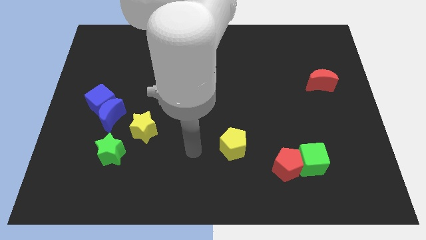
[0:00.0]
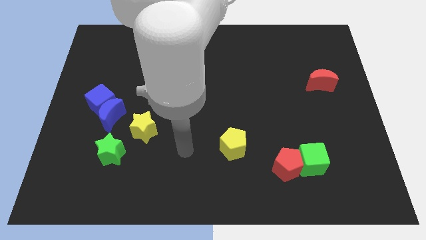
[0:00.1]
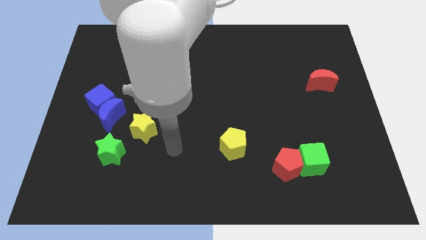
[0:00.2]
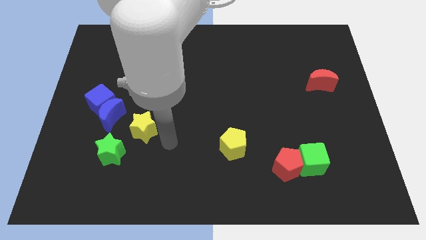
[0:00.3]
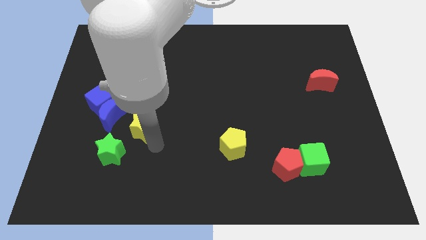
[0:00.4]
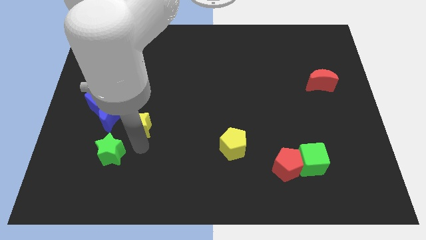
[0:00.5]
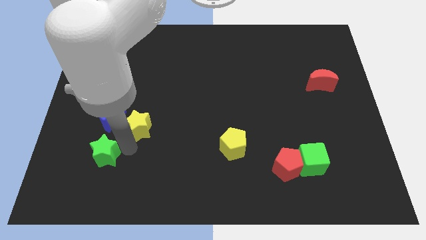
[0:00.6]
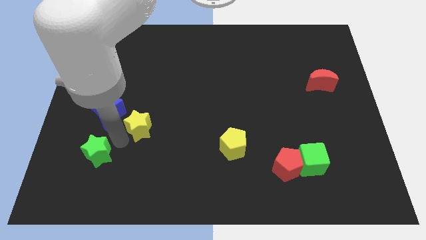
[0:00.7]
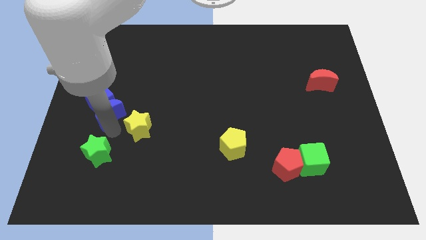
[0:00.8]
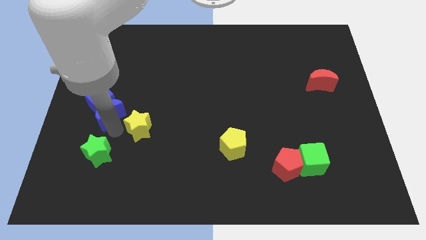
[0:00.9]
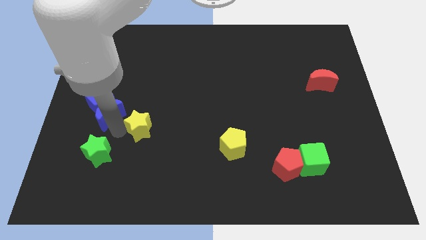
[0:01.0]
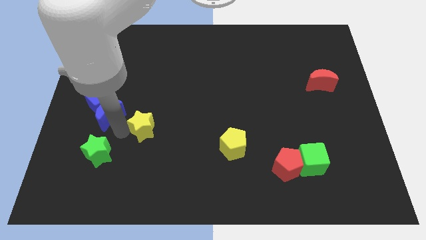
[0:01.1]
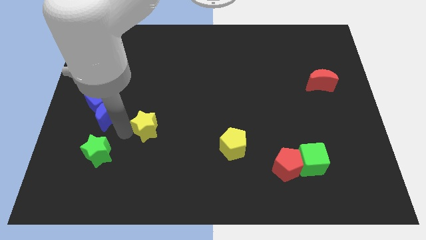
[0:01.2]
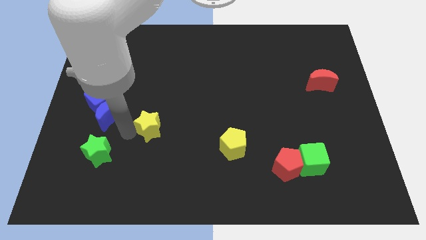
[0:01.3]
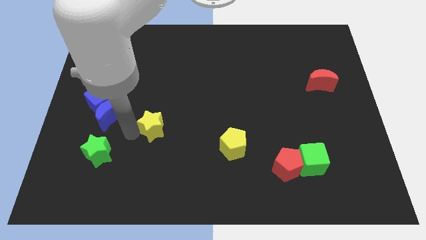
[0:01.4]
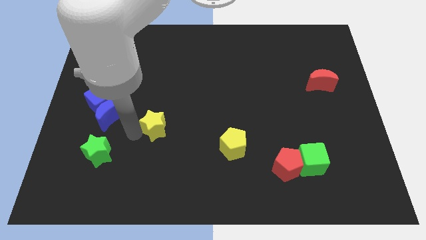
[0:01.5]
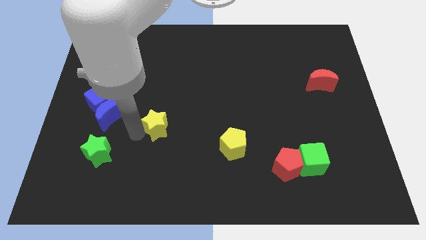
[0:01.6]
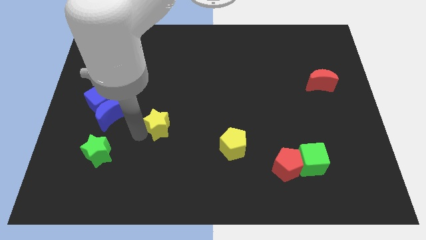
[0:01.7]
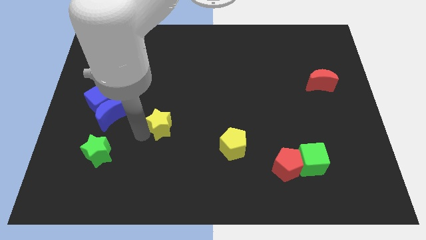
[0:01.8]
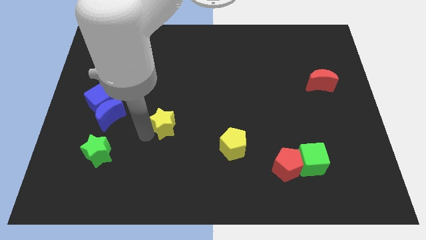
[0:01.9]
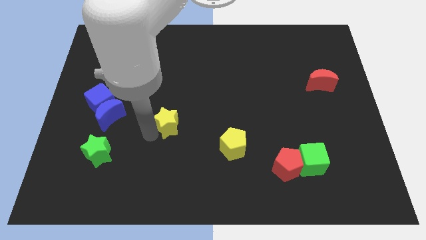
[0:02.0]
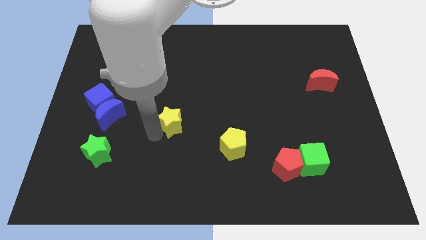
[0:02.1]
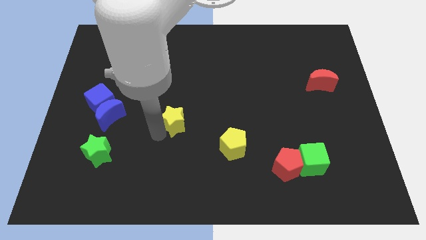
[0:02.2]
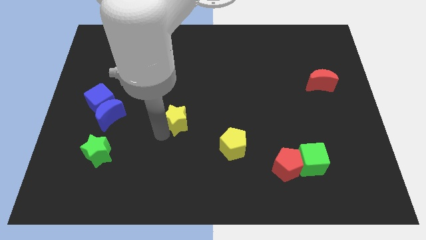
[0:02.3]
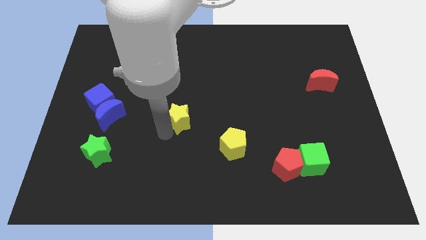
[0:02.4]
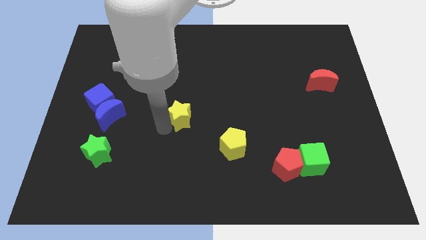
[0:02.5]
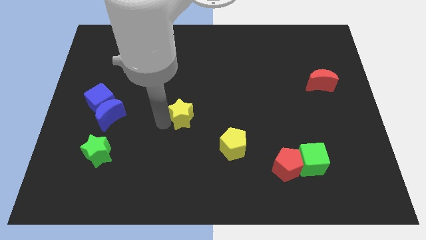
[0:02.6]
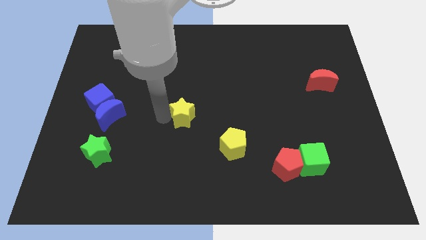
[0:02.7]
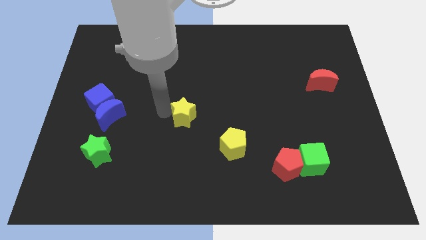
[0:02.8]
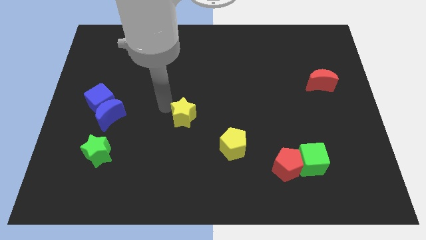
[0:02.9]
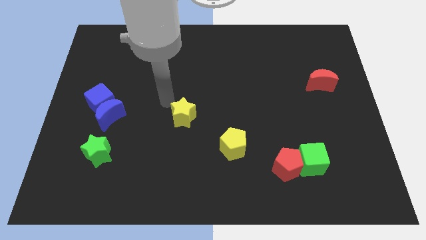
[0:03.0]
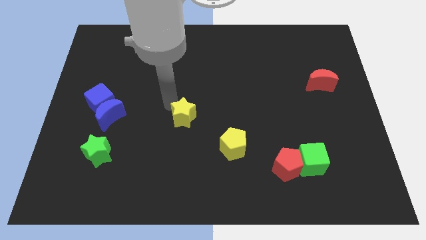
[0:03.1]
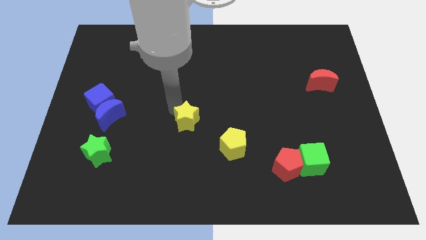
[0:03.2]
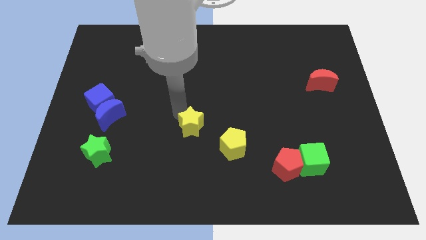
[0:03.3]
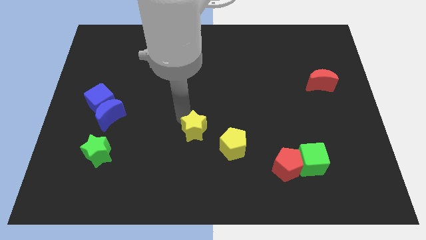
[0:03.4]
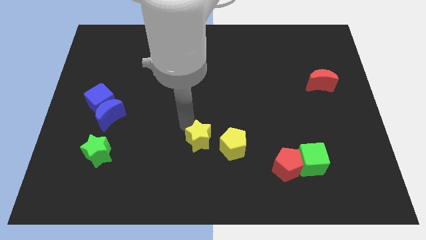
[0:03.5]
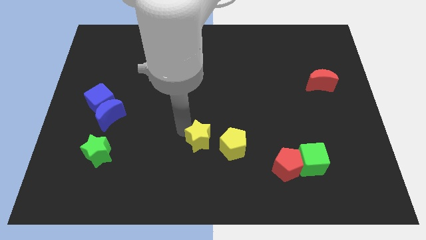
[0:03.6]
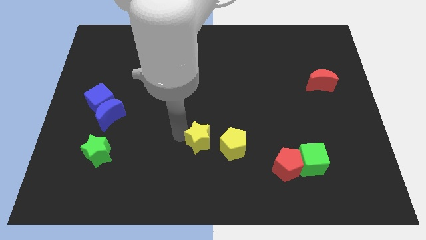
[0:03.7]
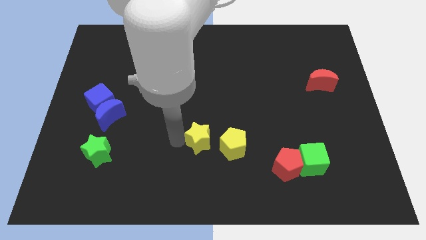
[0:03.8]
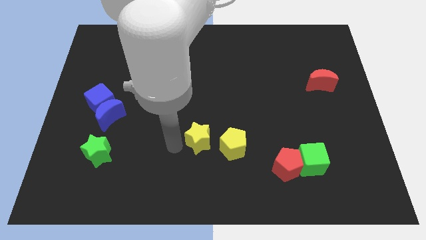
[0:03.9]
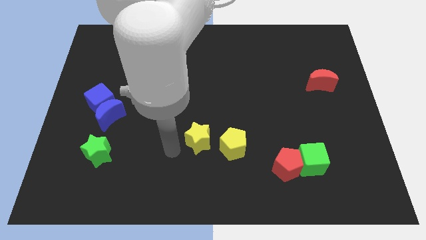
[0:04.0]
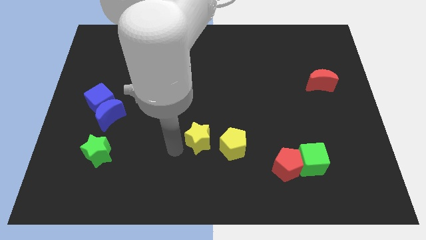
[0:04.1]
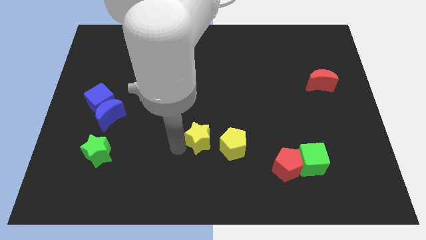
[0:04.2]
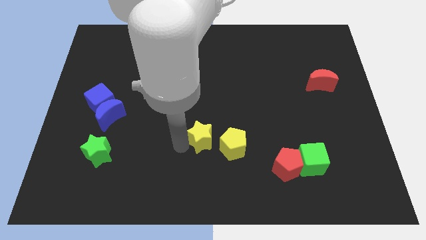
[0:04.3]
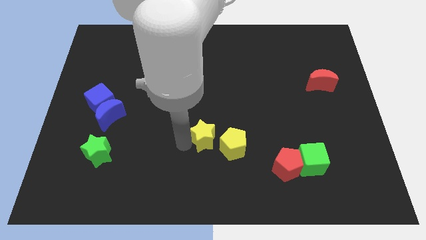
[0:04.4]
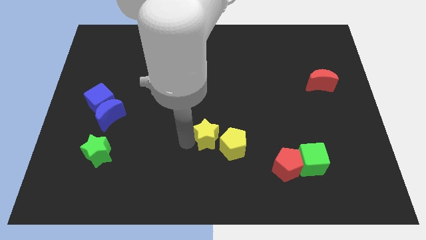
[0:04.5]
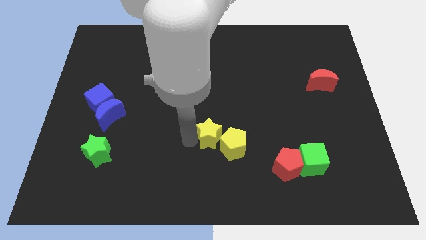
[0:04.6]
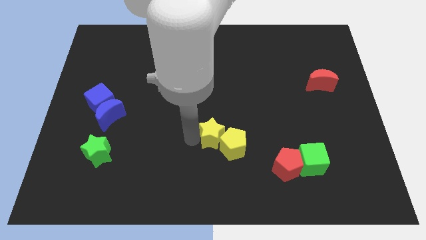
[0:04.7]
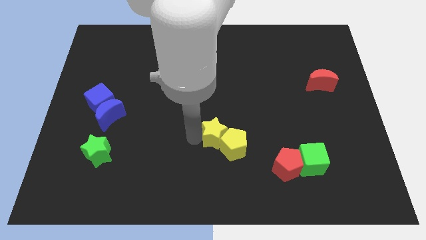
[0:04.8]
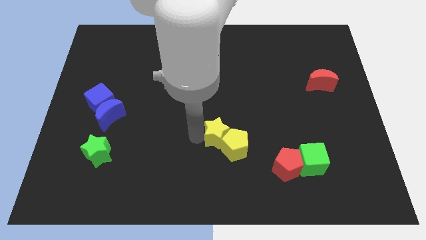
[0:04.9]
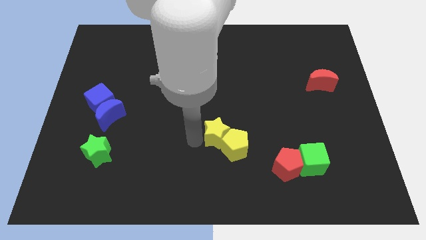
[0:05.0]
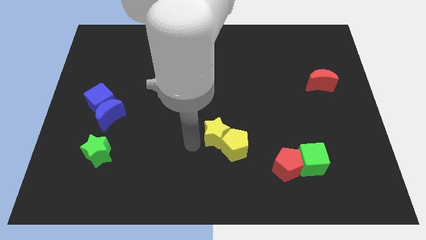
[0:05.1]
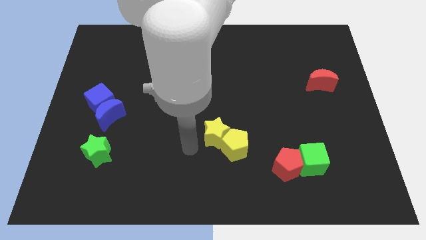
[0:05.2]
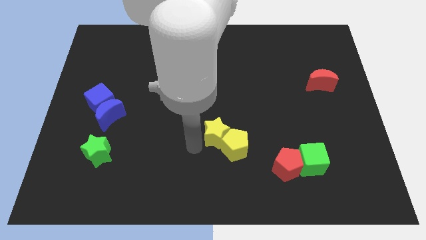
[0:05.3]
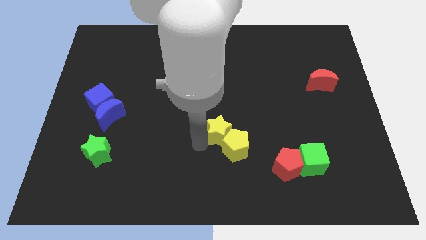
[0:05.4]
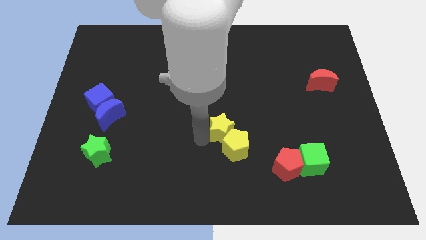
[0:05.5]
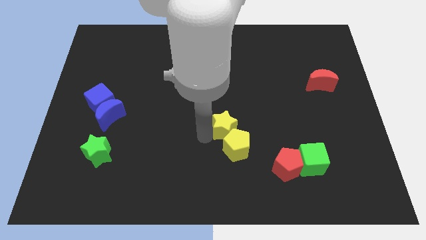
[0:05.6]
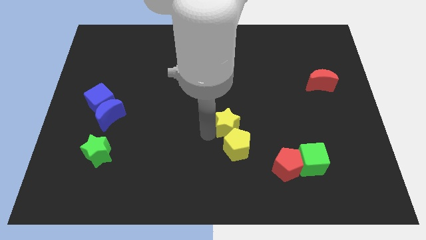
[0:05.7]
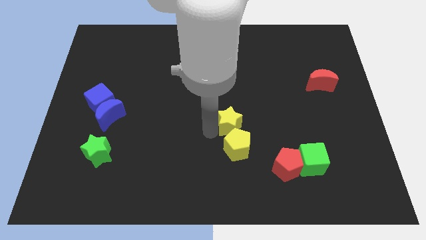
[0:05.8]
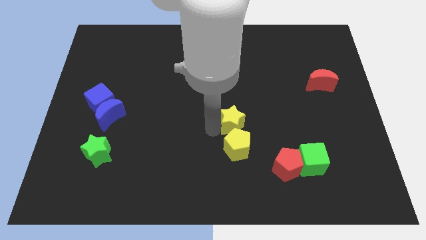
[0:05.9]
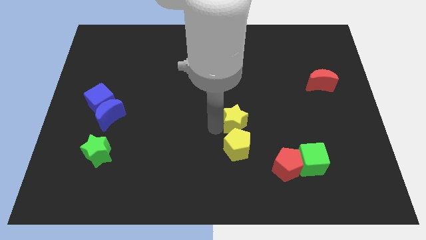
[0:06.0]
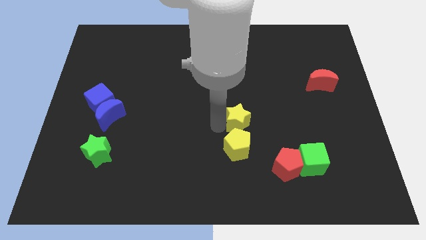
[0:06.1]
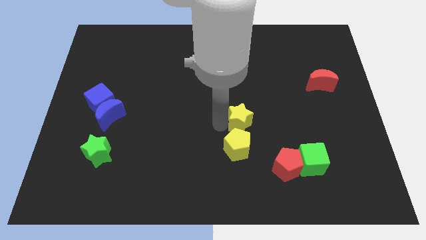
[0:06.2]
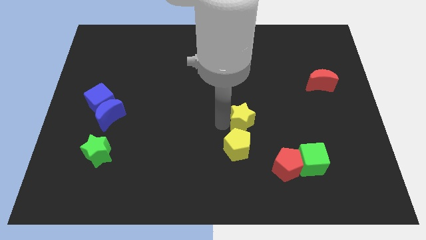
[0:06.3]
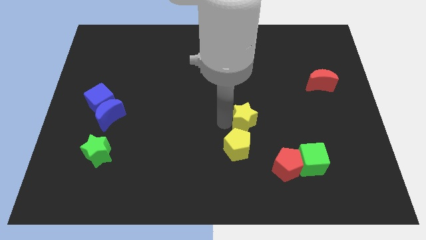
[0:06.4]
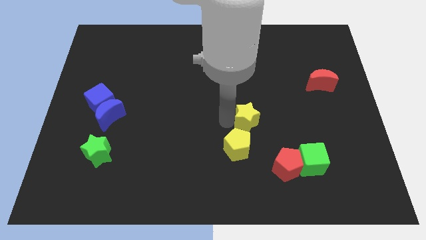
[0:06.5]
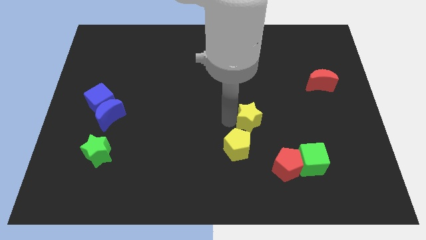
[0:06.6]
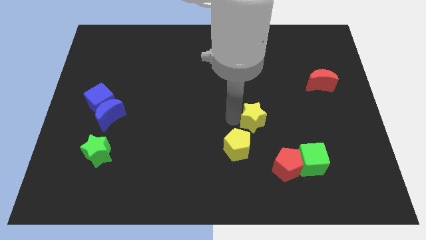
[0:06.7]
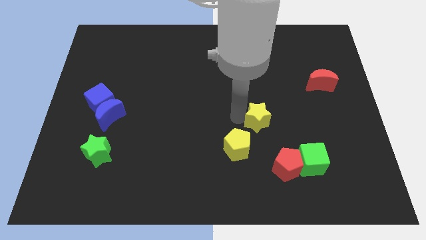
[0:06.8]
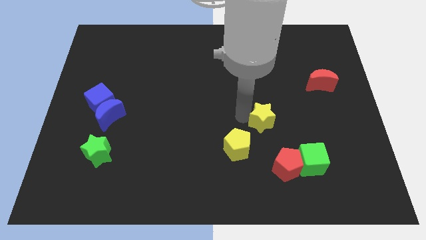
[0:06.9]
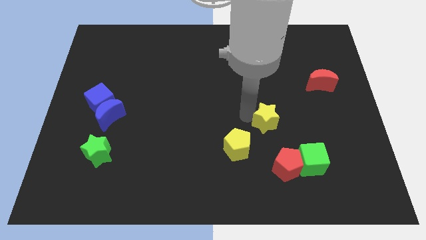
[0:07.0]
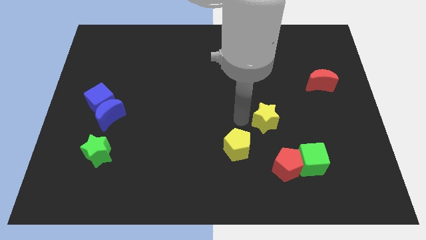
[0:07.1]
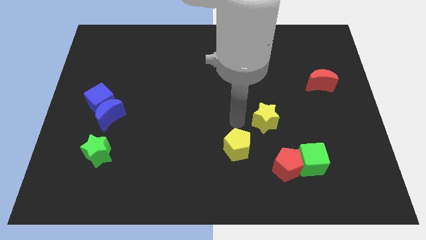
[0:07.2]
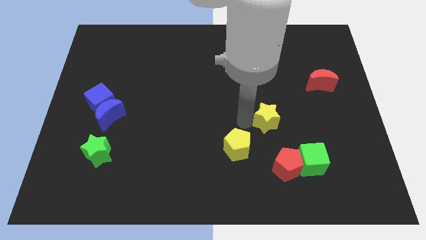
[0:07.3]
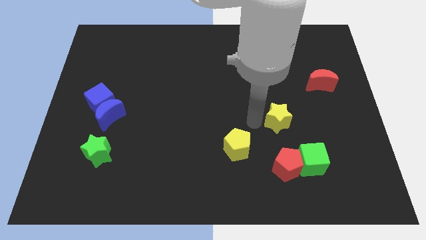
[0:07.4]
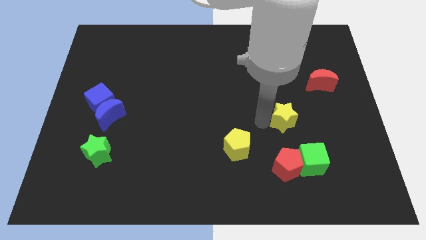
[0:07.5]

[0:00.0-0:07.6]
push the yellow star above the green cube
